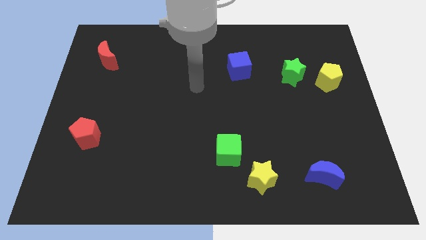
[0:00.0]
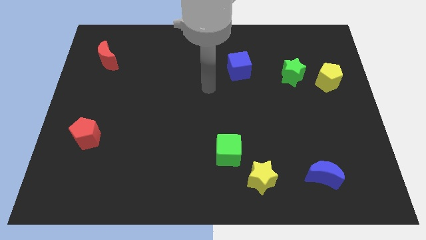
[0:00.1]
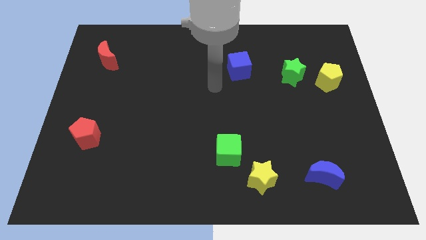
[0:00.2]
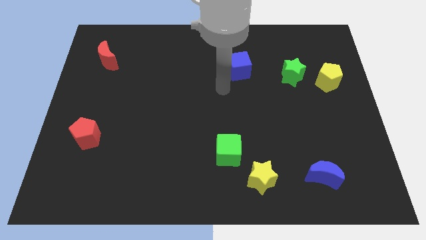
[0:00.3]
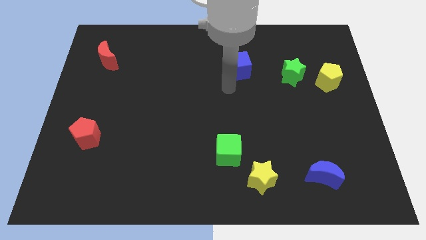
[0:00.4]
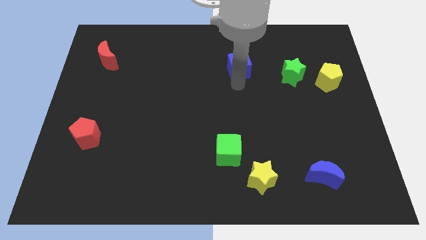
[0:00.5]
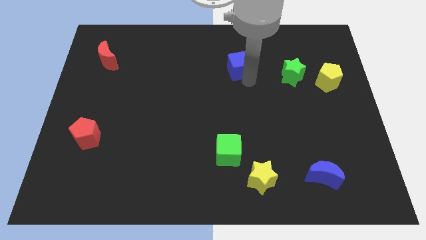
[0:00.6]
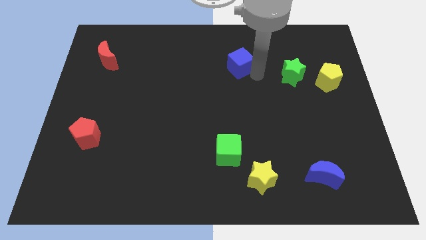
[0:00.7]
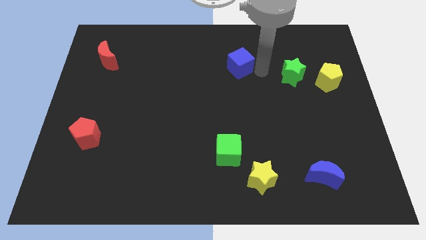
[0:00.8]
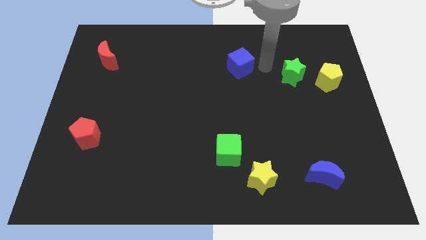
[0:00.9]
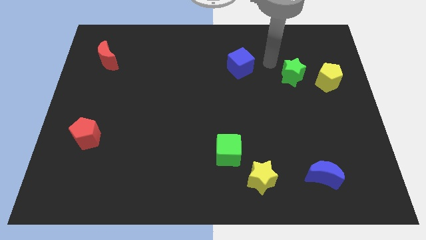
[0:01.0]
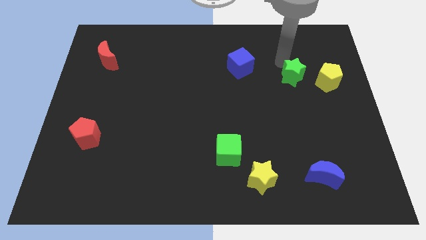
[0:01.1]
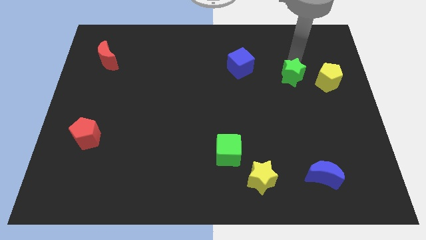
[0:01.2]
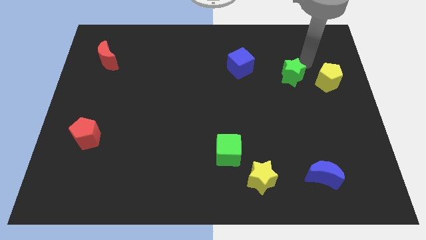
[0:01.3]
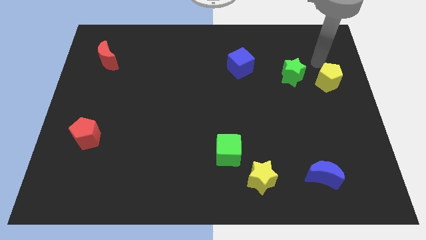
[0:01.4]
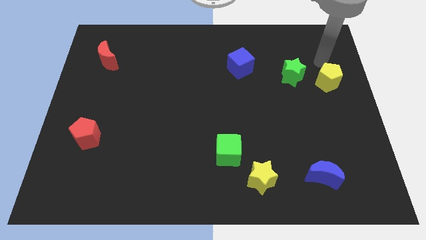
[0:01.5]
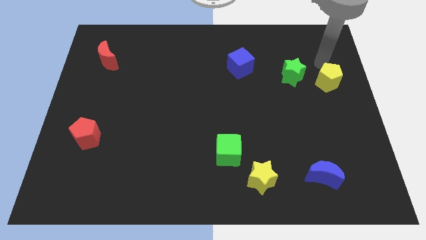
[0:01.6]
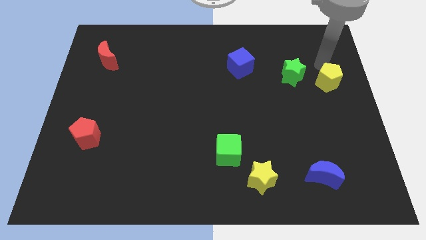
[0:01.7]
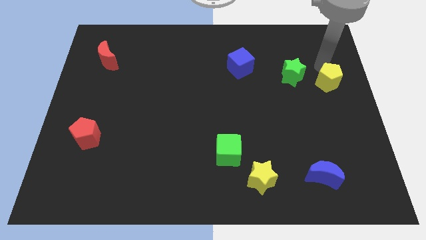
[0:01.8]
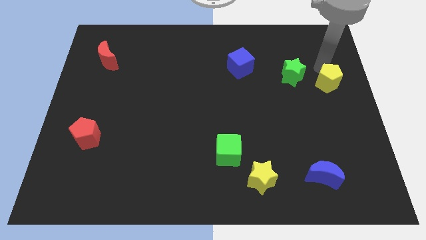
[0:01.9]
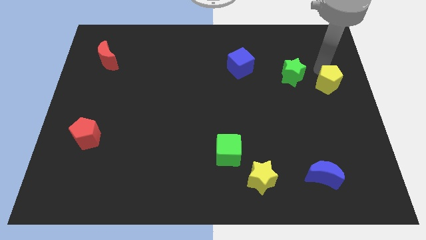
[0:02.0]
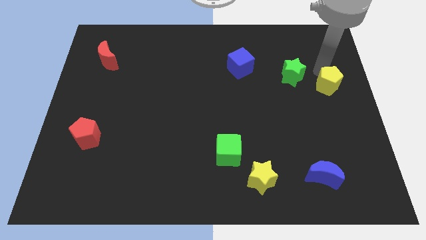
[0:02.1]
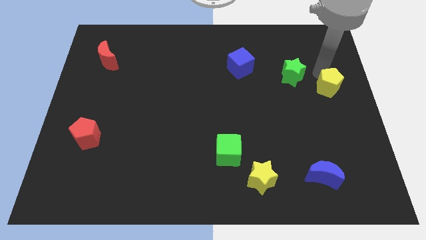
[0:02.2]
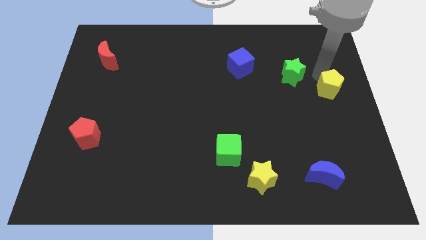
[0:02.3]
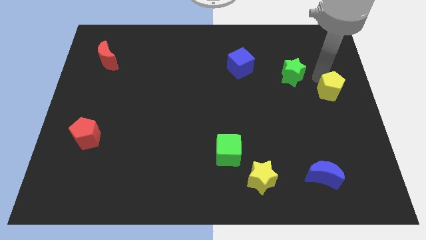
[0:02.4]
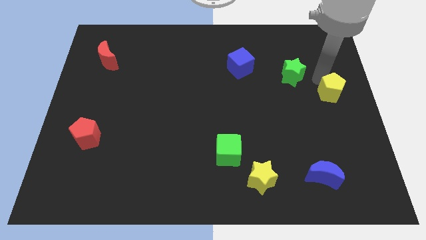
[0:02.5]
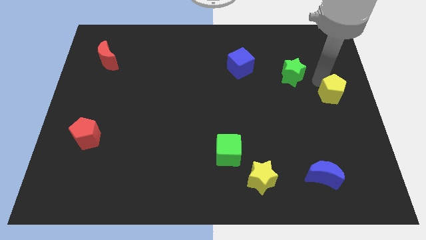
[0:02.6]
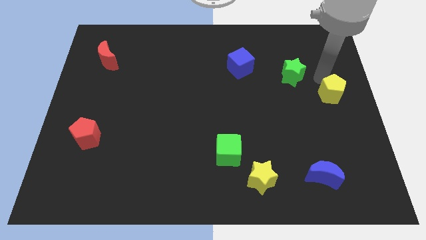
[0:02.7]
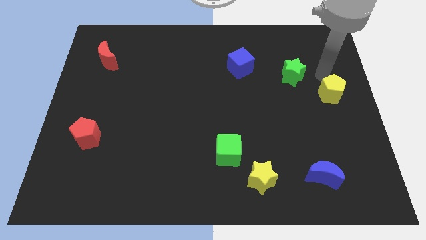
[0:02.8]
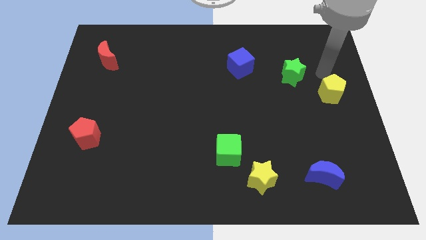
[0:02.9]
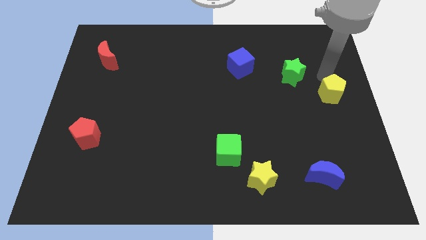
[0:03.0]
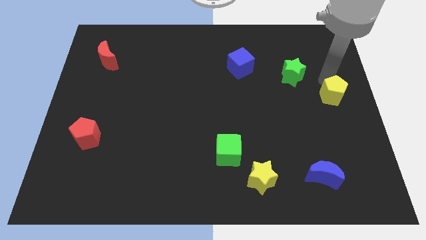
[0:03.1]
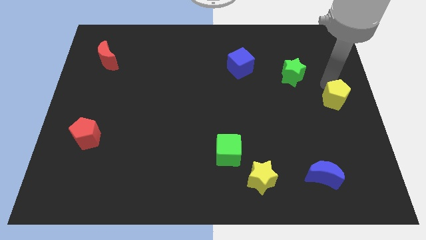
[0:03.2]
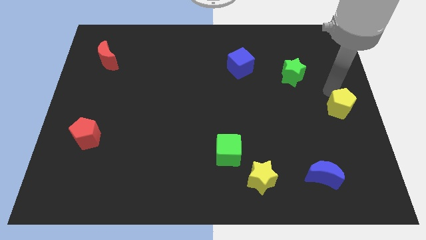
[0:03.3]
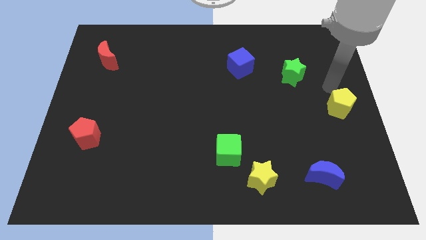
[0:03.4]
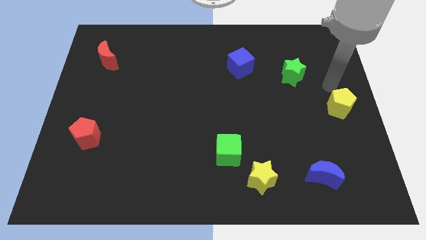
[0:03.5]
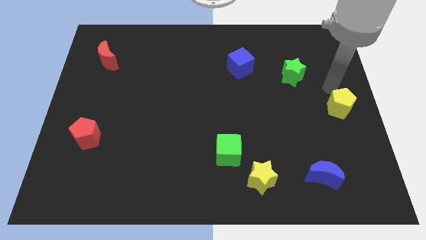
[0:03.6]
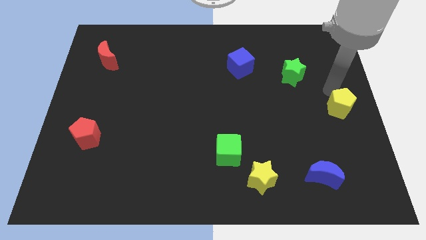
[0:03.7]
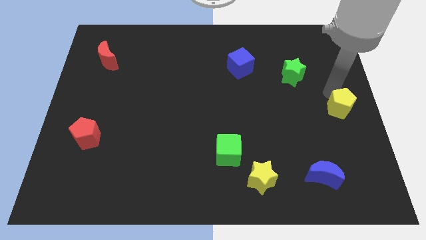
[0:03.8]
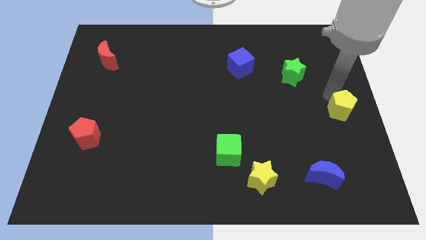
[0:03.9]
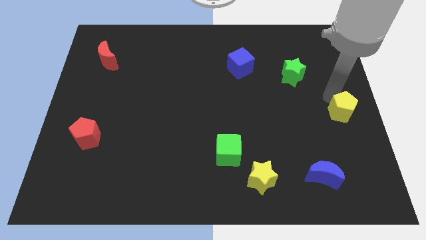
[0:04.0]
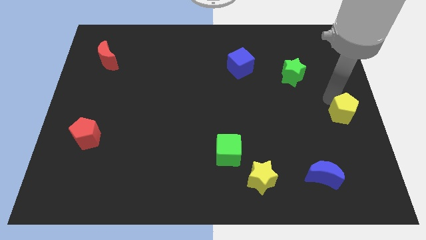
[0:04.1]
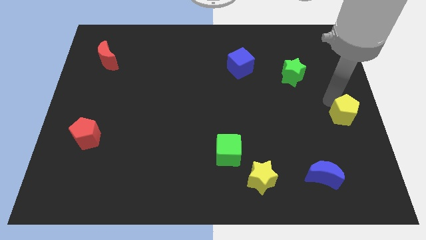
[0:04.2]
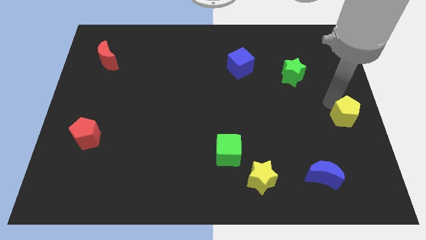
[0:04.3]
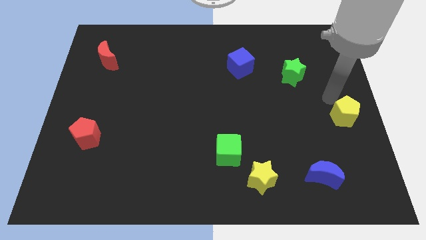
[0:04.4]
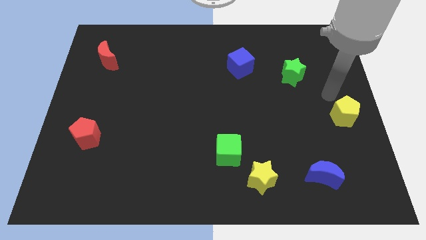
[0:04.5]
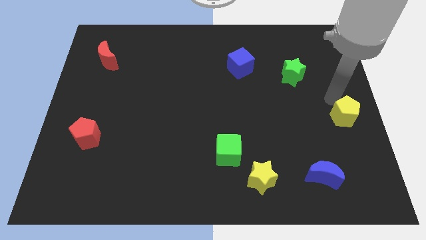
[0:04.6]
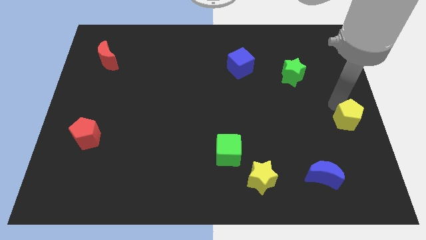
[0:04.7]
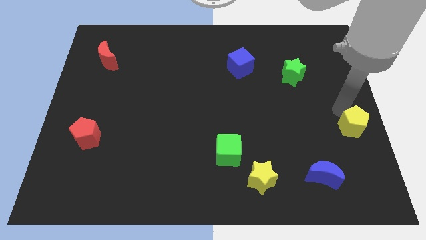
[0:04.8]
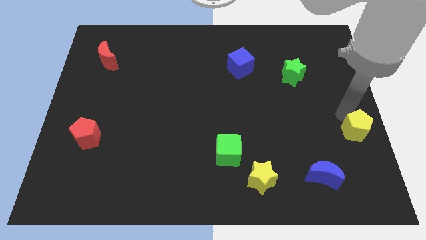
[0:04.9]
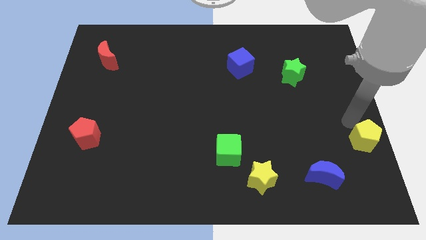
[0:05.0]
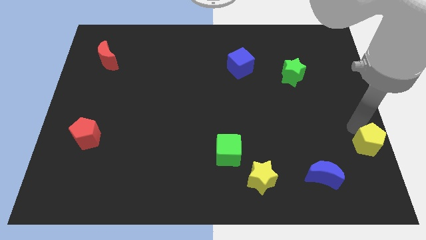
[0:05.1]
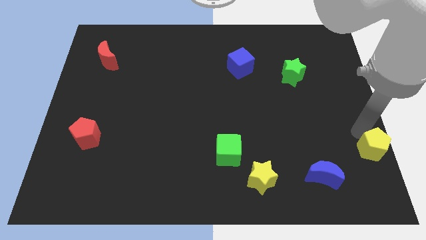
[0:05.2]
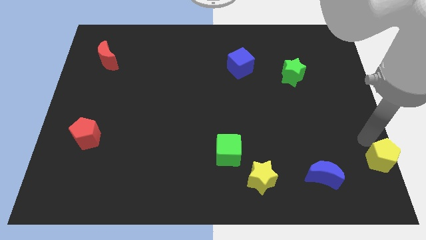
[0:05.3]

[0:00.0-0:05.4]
push the yellow pentagon to the bottom right corner

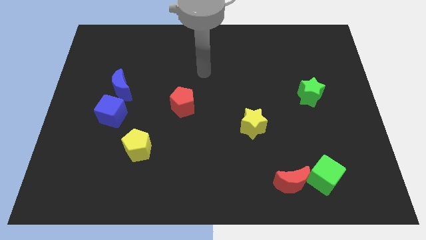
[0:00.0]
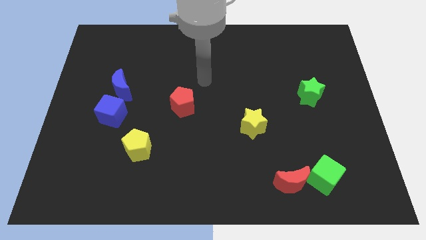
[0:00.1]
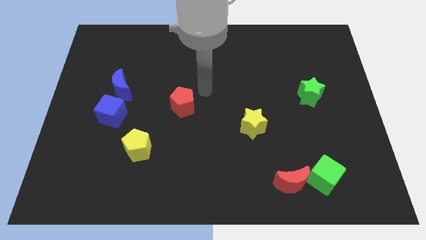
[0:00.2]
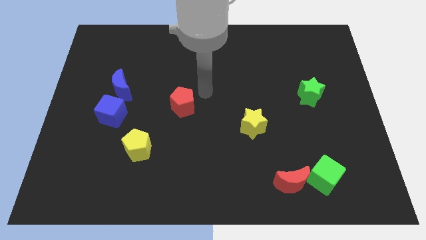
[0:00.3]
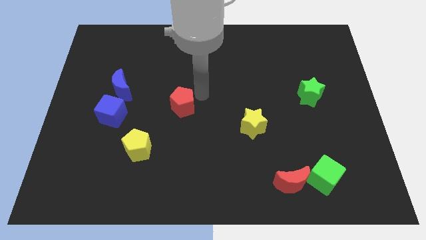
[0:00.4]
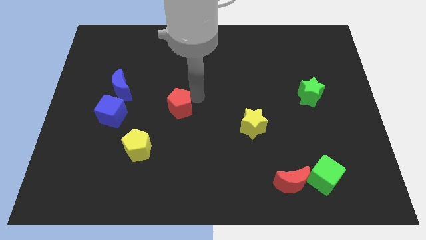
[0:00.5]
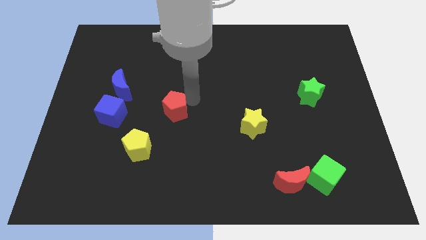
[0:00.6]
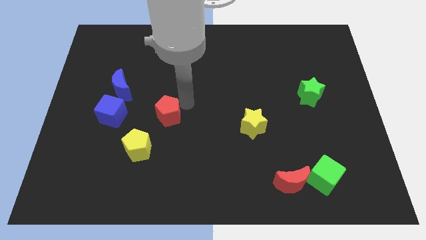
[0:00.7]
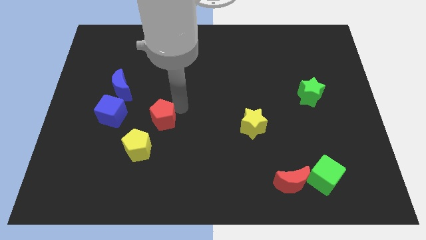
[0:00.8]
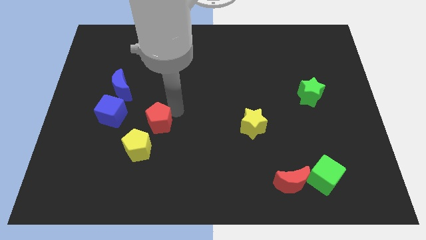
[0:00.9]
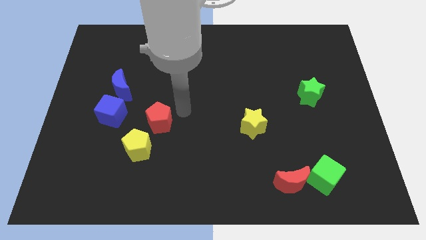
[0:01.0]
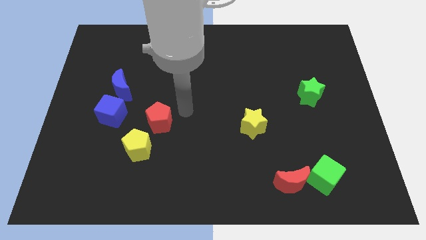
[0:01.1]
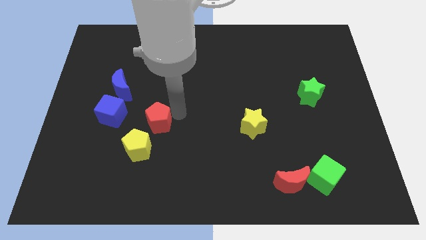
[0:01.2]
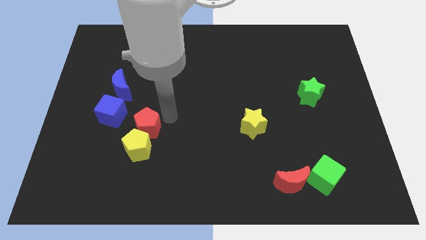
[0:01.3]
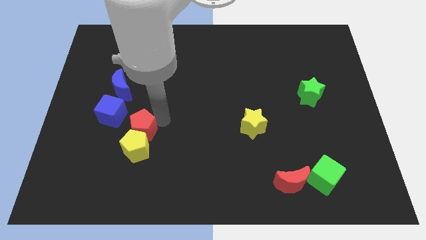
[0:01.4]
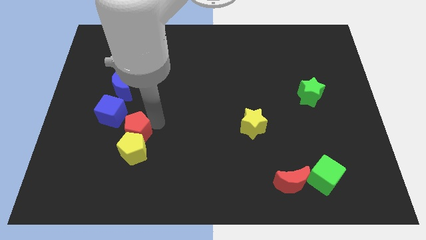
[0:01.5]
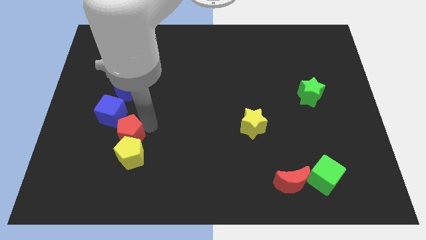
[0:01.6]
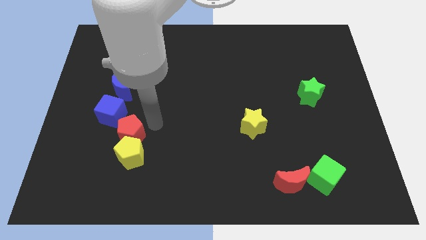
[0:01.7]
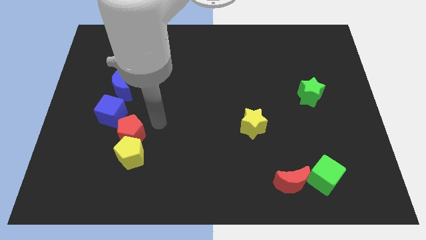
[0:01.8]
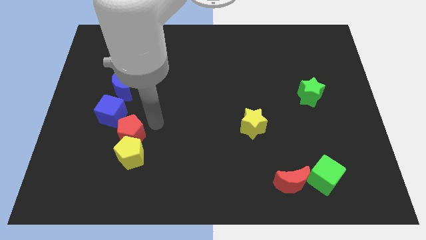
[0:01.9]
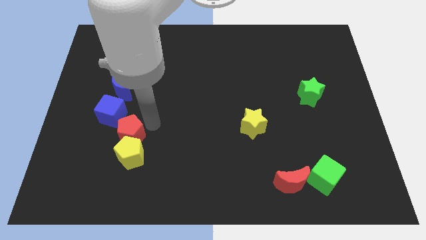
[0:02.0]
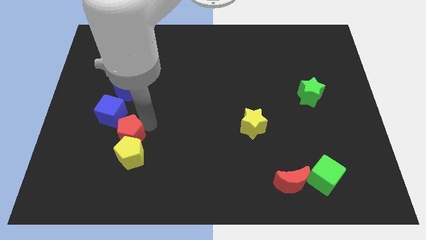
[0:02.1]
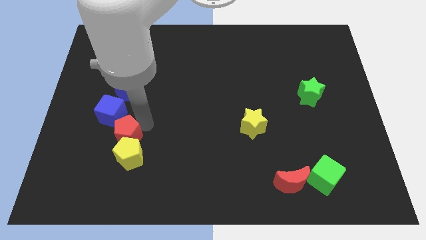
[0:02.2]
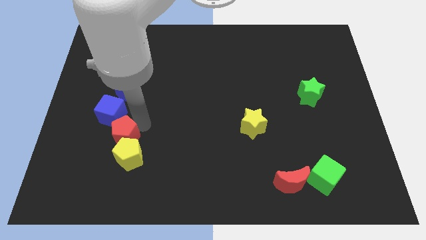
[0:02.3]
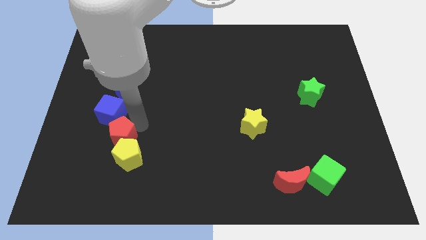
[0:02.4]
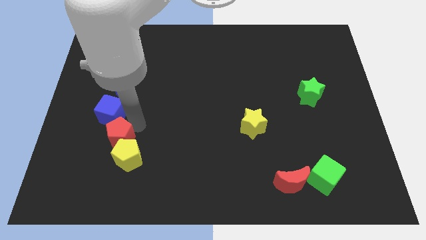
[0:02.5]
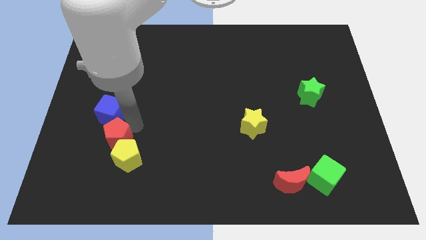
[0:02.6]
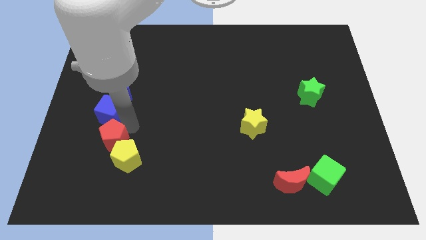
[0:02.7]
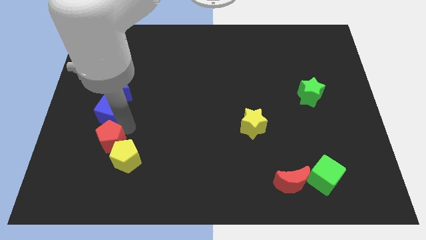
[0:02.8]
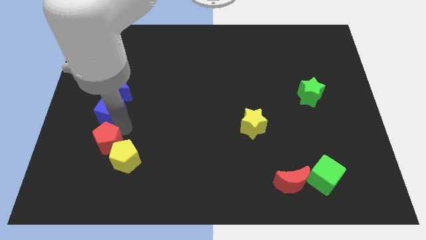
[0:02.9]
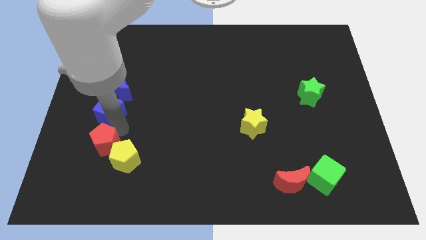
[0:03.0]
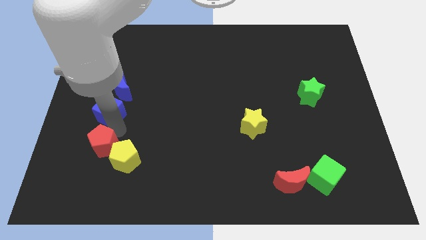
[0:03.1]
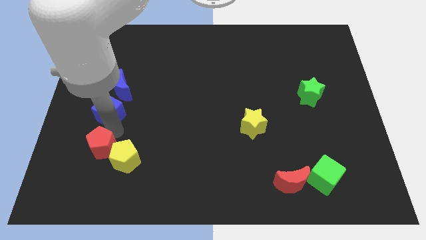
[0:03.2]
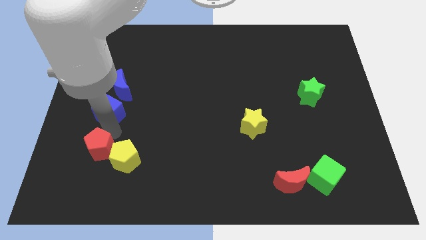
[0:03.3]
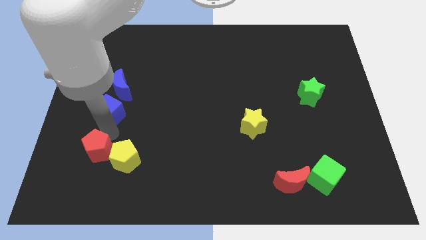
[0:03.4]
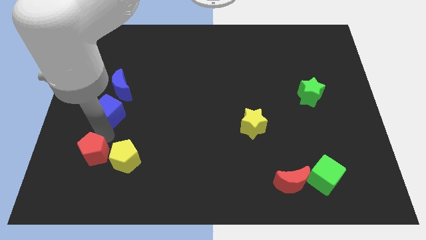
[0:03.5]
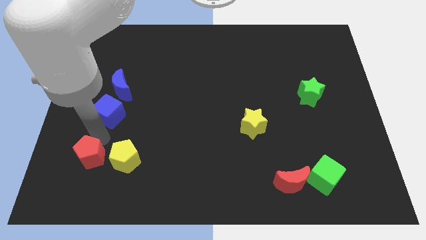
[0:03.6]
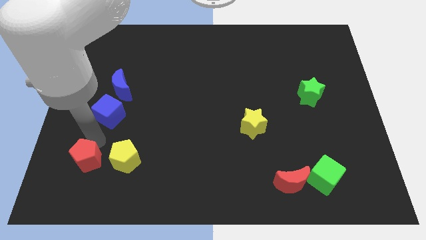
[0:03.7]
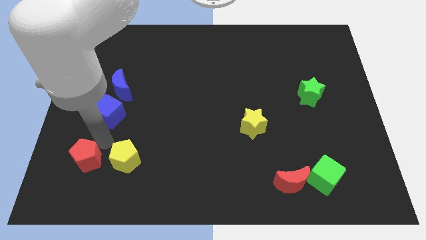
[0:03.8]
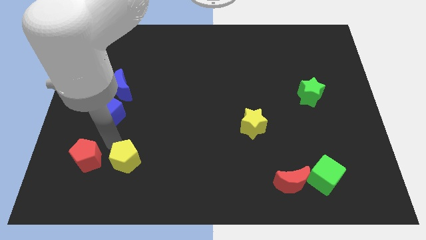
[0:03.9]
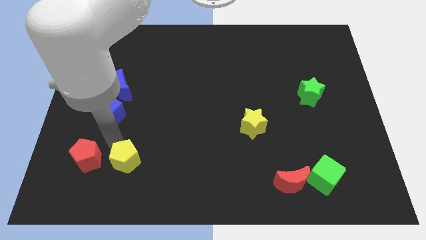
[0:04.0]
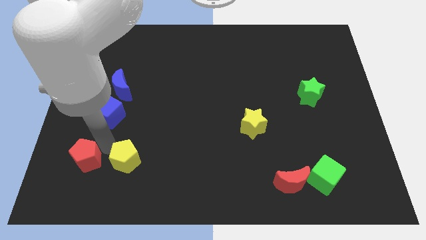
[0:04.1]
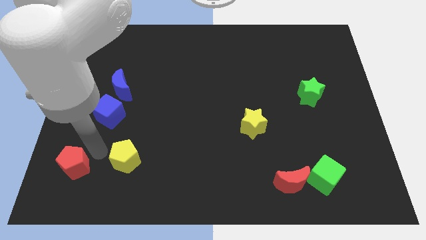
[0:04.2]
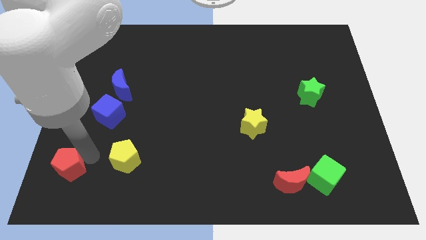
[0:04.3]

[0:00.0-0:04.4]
move the red pentagon to the lower left corner
